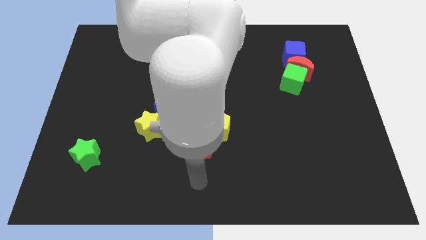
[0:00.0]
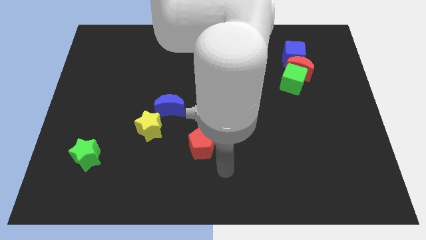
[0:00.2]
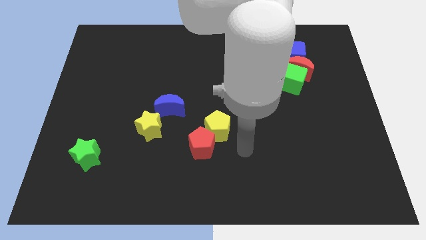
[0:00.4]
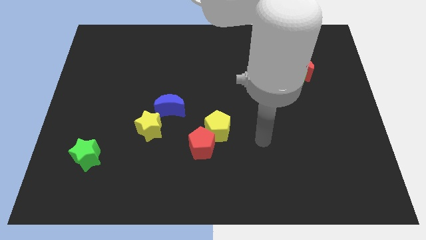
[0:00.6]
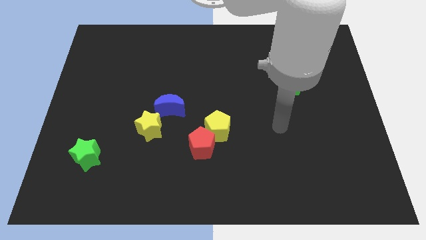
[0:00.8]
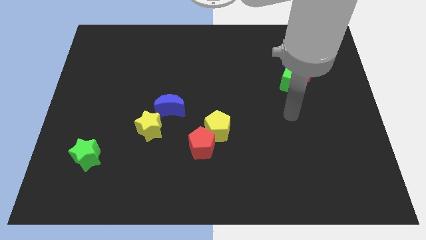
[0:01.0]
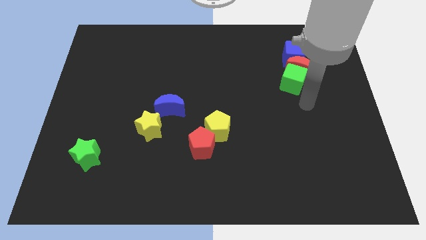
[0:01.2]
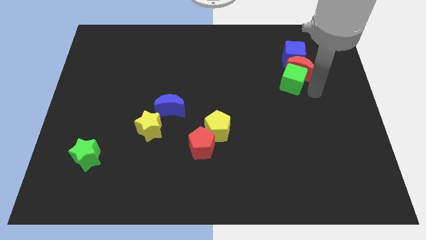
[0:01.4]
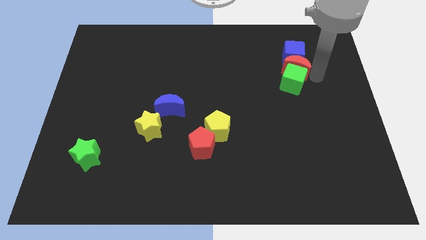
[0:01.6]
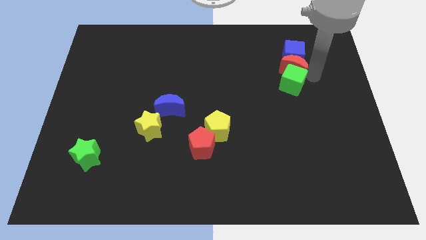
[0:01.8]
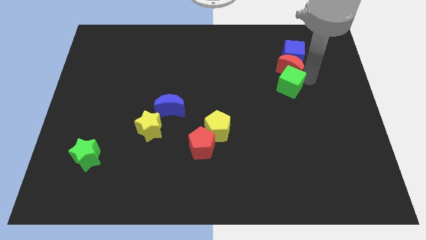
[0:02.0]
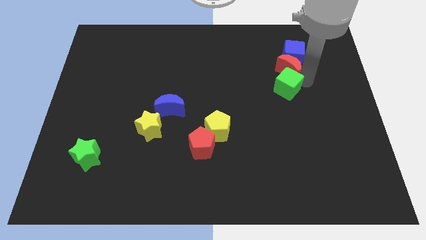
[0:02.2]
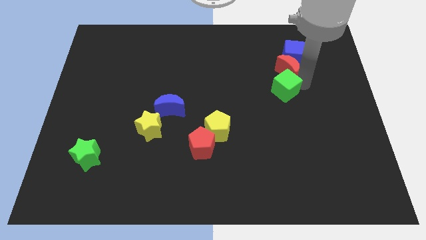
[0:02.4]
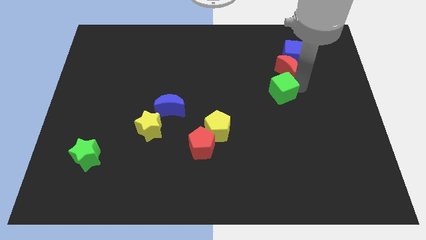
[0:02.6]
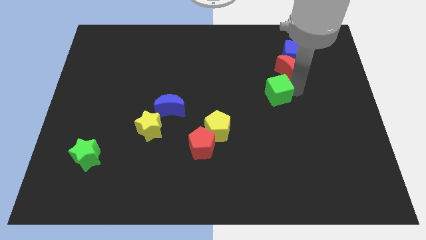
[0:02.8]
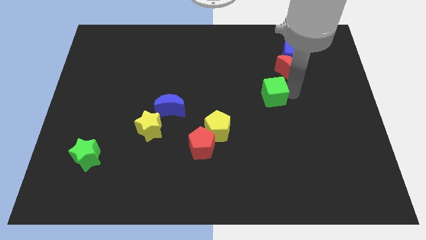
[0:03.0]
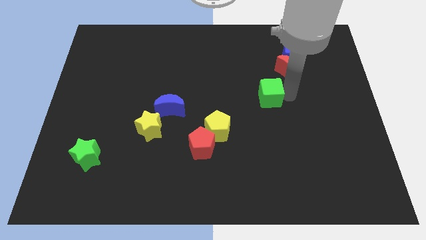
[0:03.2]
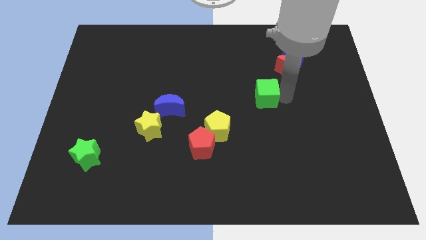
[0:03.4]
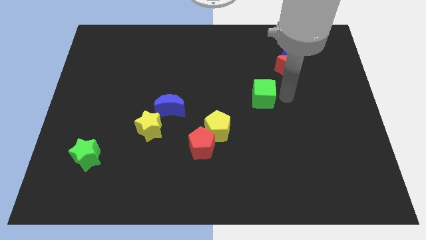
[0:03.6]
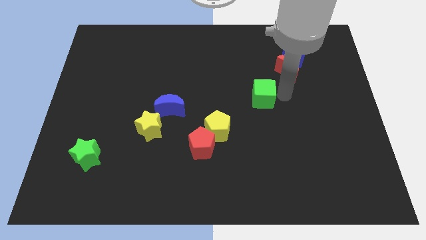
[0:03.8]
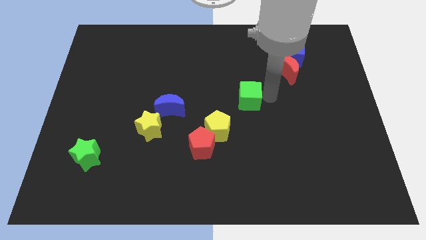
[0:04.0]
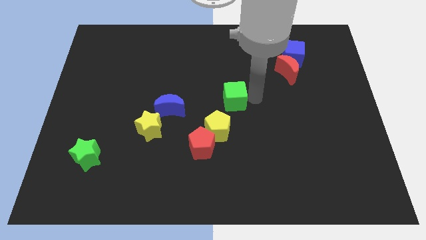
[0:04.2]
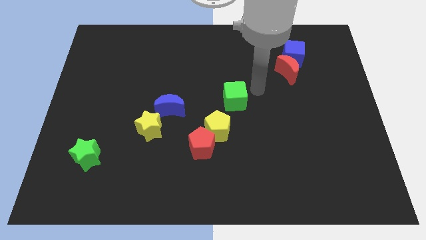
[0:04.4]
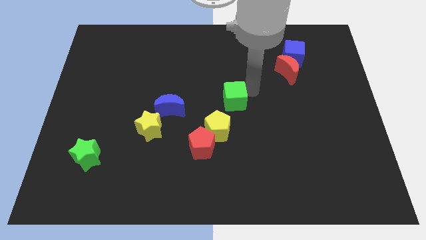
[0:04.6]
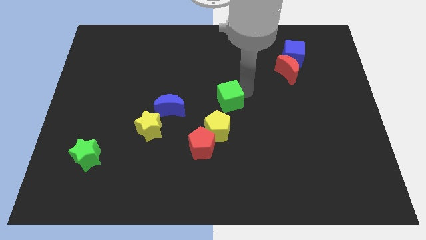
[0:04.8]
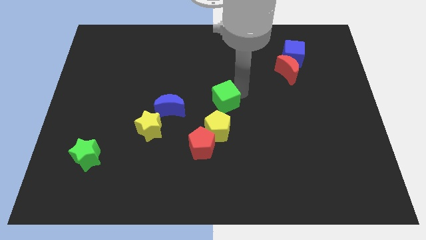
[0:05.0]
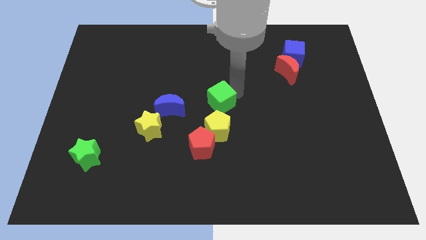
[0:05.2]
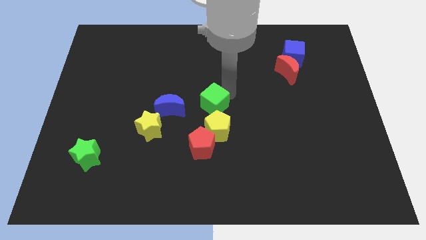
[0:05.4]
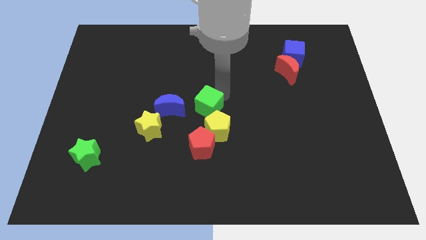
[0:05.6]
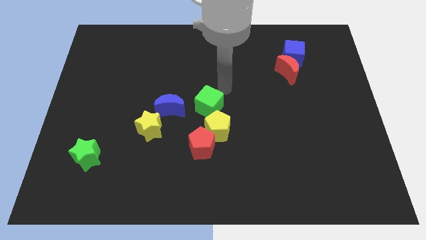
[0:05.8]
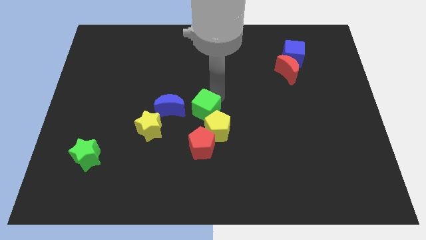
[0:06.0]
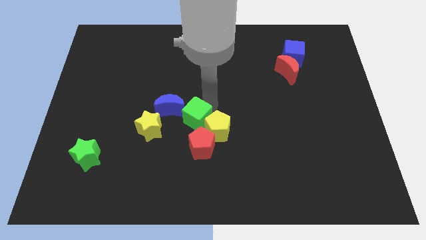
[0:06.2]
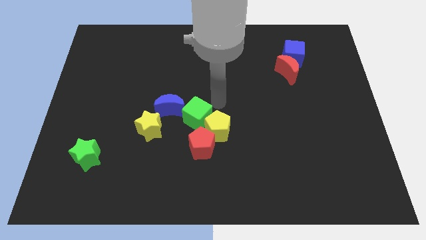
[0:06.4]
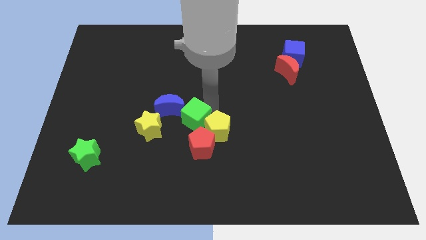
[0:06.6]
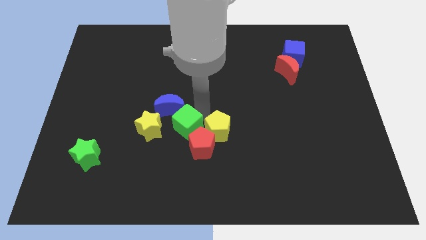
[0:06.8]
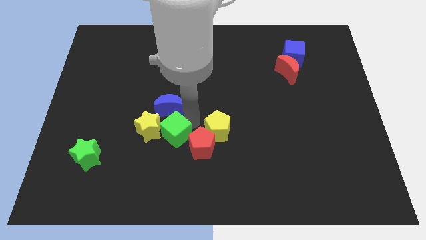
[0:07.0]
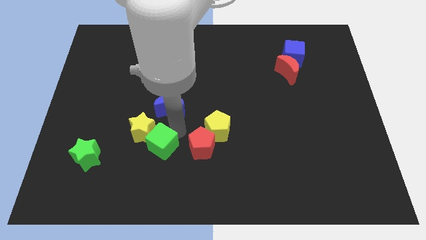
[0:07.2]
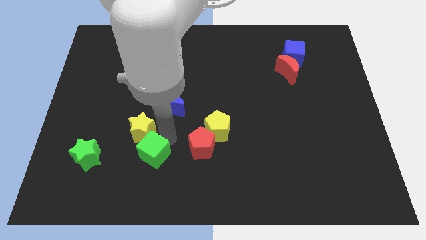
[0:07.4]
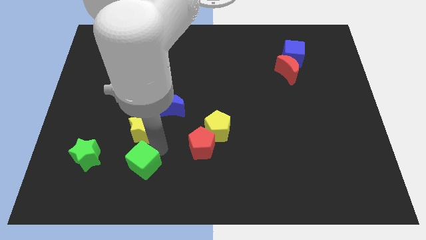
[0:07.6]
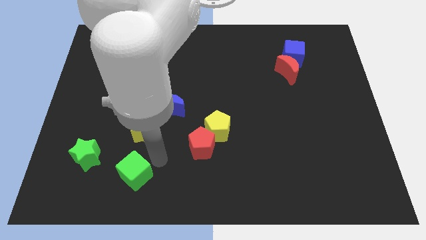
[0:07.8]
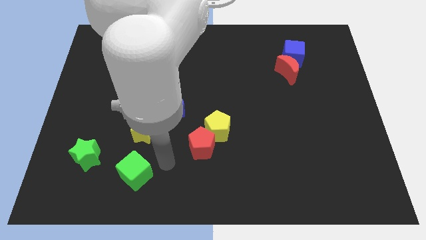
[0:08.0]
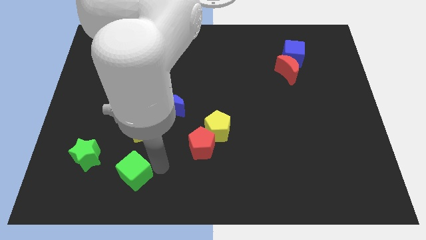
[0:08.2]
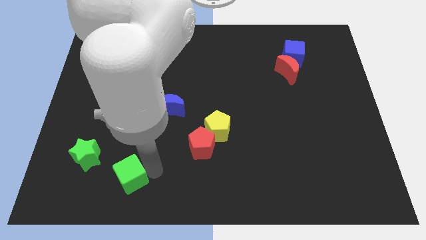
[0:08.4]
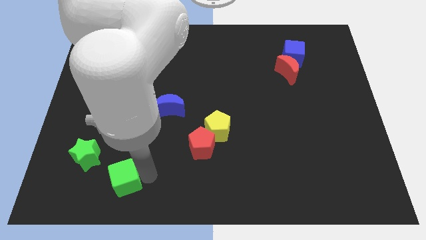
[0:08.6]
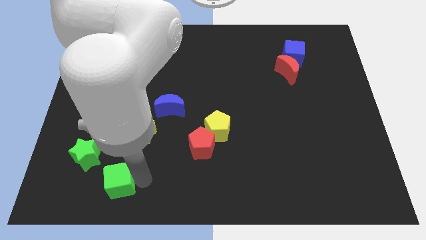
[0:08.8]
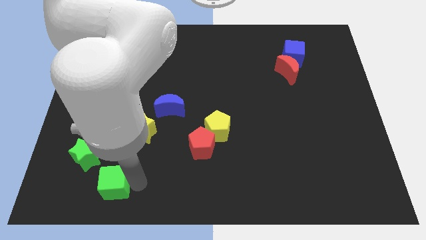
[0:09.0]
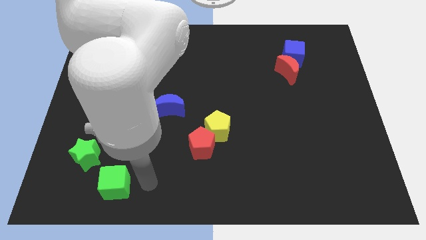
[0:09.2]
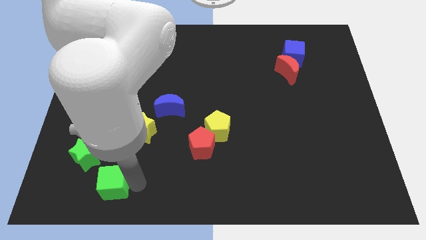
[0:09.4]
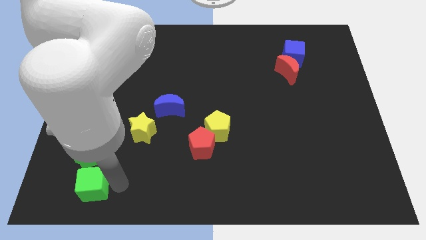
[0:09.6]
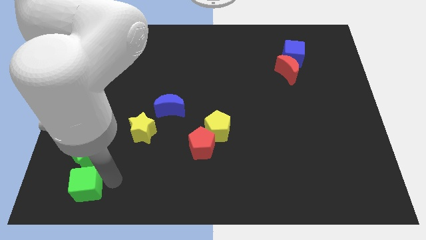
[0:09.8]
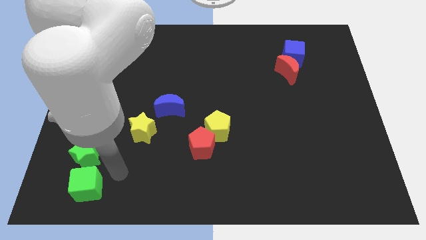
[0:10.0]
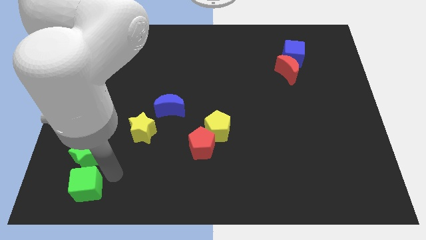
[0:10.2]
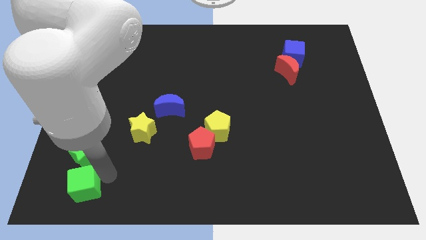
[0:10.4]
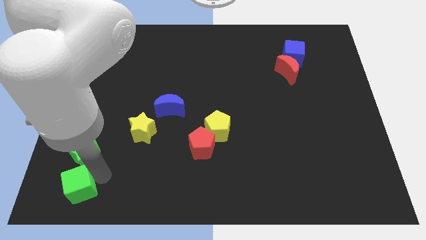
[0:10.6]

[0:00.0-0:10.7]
move the green cube to the bottom left
